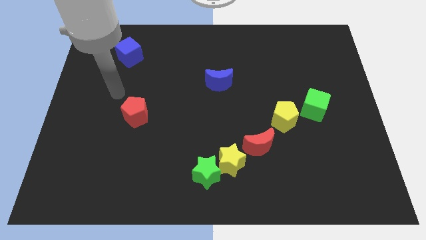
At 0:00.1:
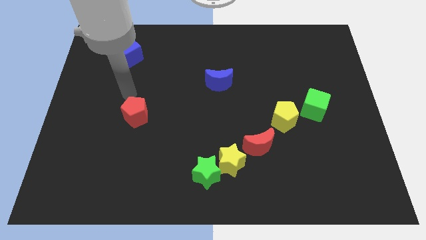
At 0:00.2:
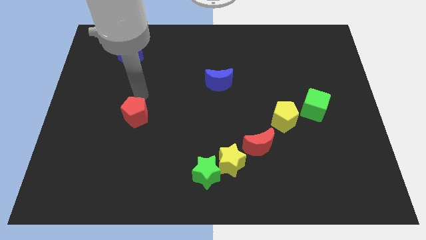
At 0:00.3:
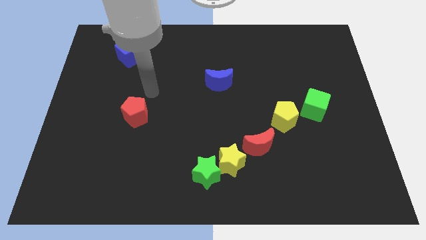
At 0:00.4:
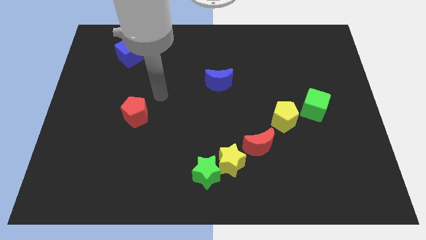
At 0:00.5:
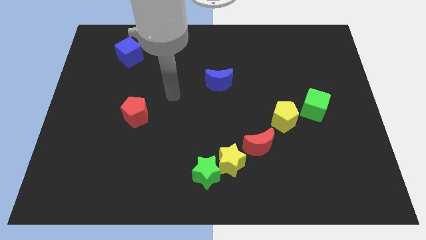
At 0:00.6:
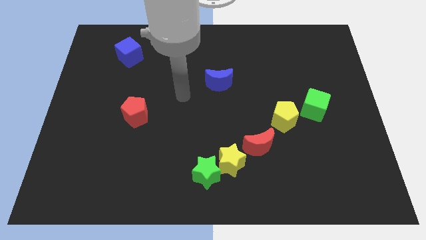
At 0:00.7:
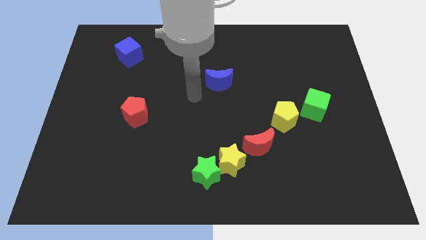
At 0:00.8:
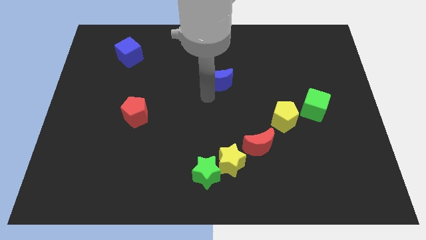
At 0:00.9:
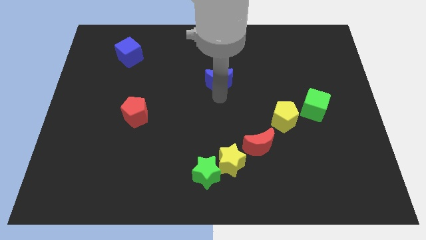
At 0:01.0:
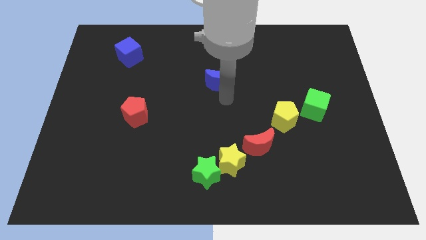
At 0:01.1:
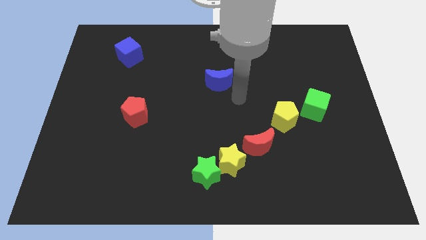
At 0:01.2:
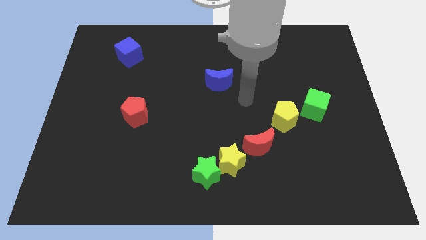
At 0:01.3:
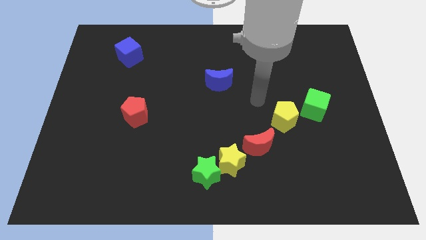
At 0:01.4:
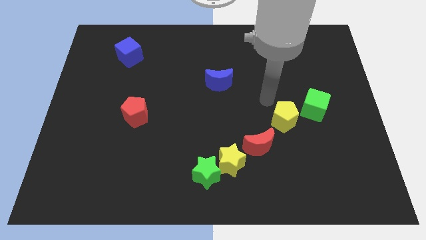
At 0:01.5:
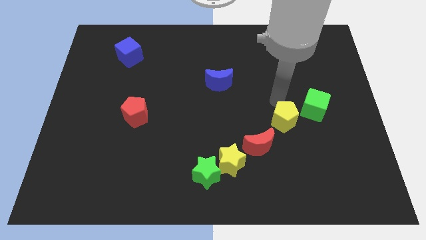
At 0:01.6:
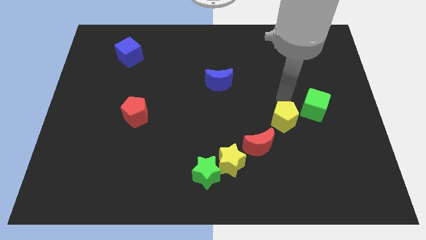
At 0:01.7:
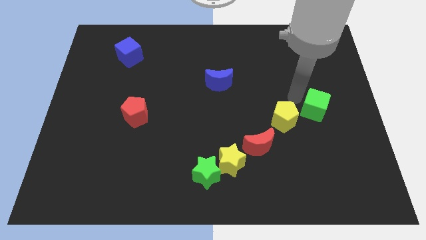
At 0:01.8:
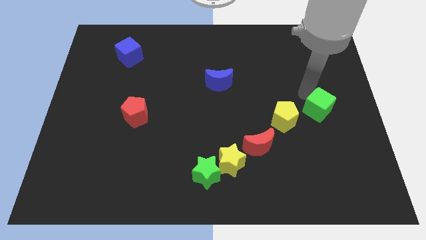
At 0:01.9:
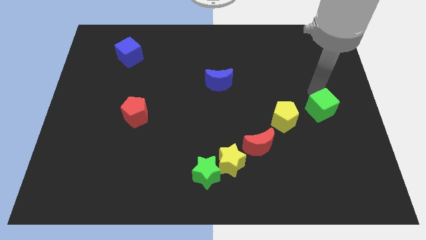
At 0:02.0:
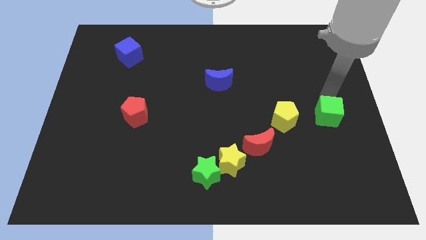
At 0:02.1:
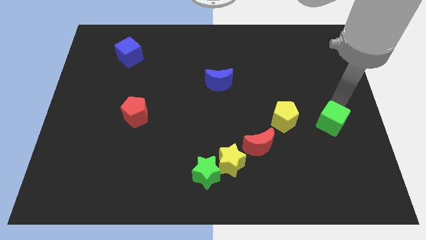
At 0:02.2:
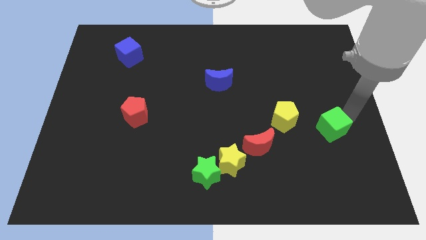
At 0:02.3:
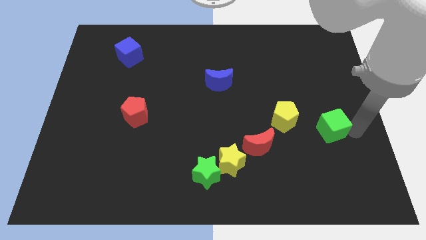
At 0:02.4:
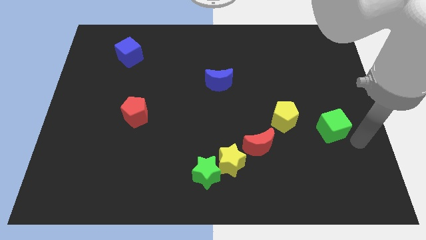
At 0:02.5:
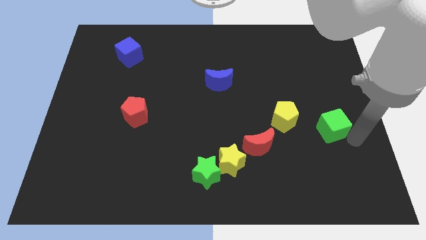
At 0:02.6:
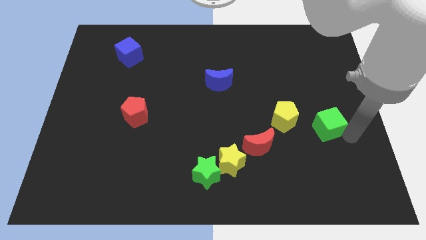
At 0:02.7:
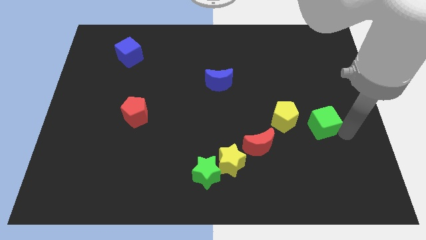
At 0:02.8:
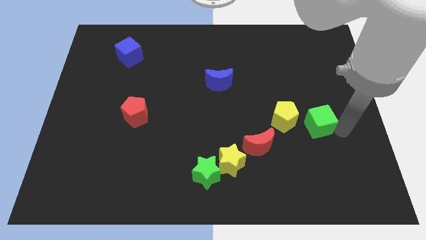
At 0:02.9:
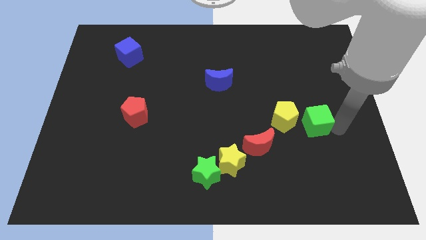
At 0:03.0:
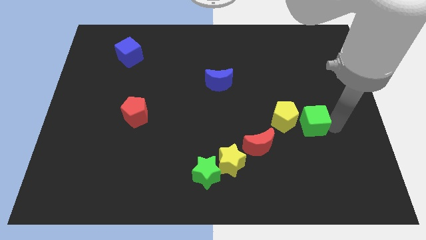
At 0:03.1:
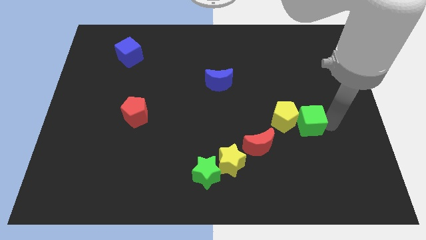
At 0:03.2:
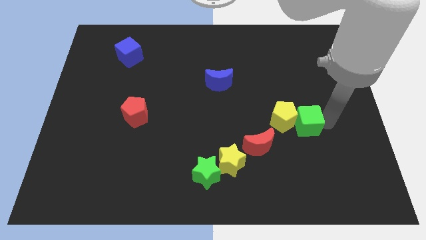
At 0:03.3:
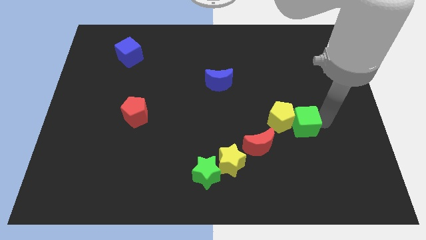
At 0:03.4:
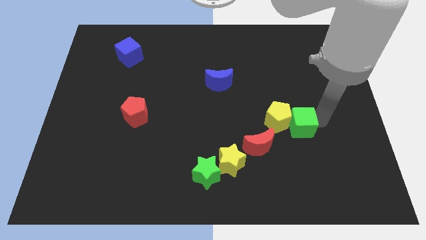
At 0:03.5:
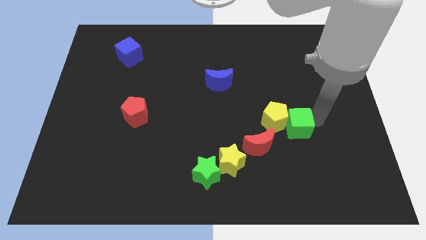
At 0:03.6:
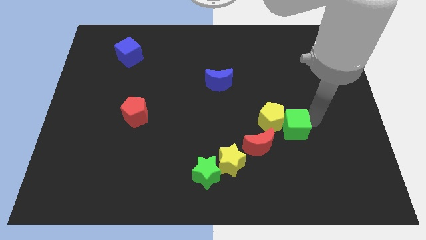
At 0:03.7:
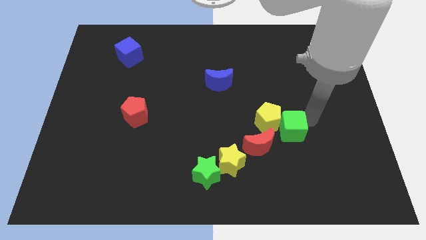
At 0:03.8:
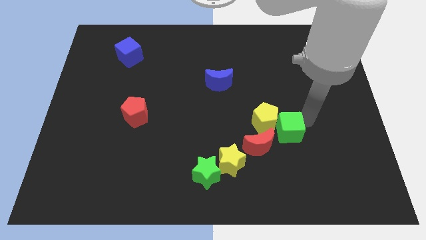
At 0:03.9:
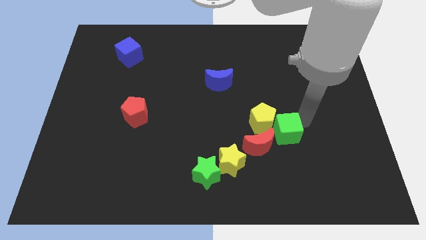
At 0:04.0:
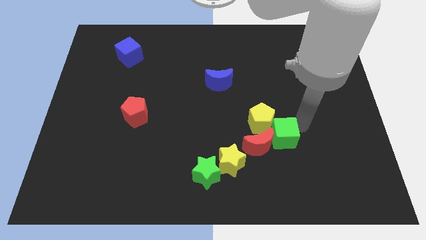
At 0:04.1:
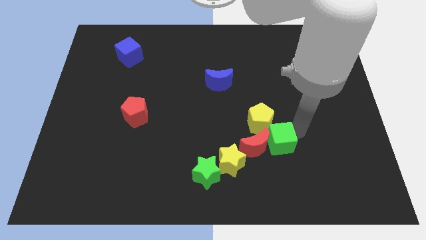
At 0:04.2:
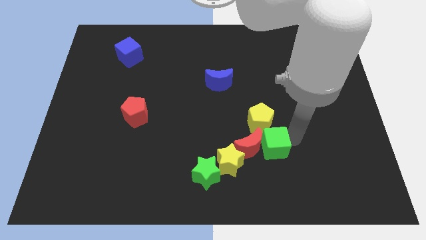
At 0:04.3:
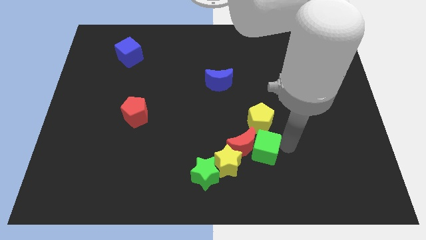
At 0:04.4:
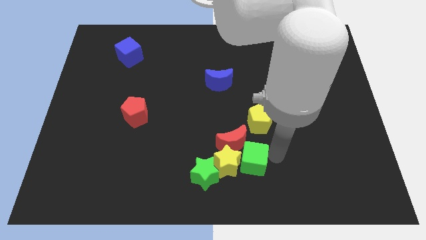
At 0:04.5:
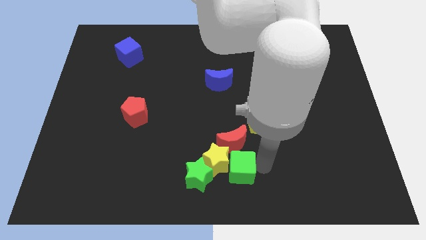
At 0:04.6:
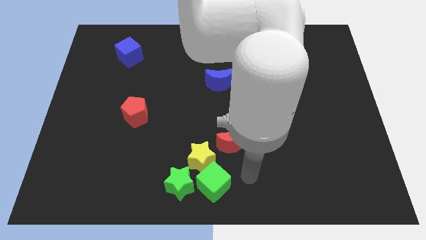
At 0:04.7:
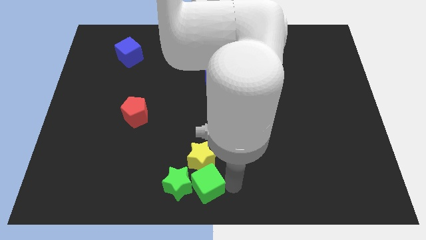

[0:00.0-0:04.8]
push the green cube next to the green star

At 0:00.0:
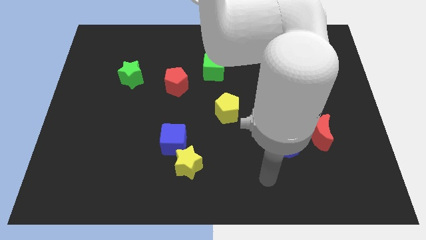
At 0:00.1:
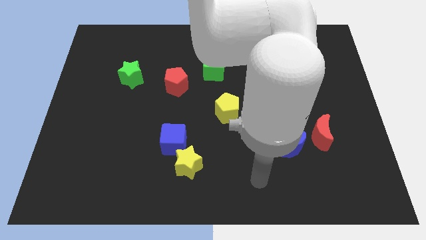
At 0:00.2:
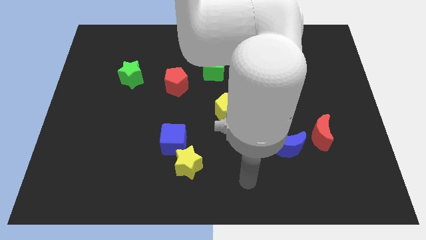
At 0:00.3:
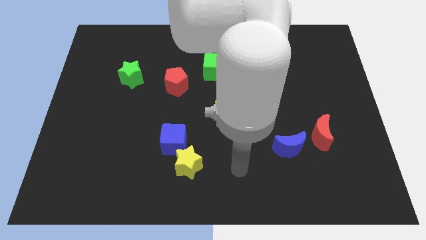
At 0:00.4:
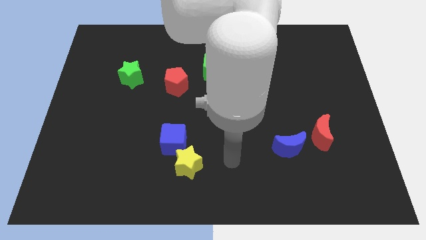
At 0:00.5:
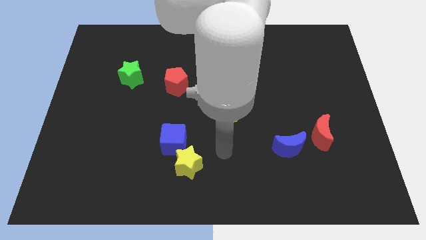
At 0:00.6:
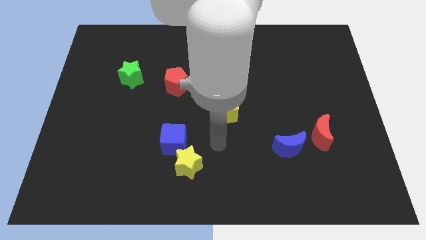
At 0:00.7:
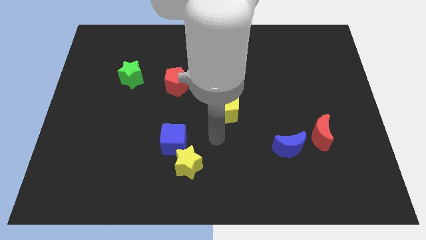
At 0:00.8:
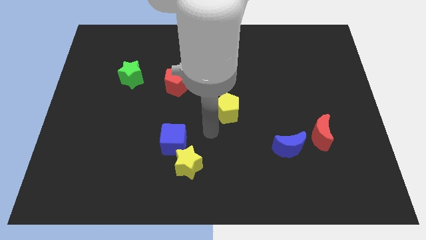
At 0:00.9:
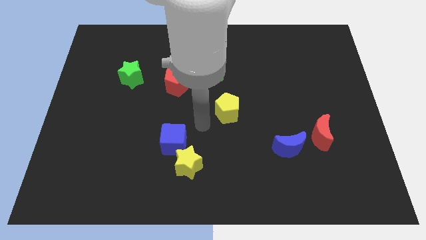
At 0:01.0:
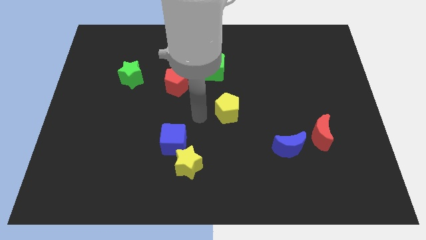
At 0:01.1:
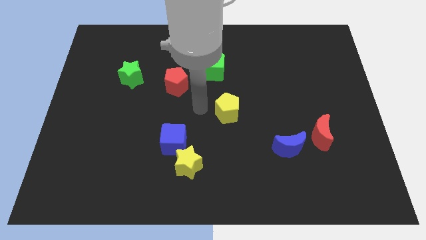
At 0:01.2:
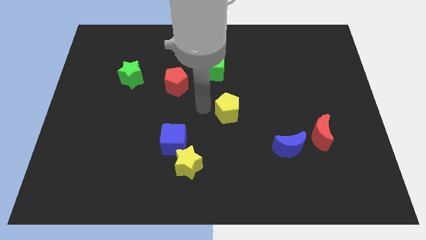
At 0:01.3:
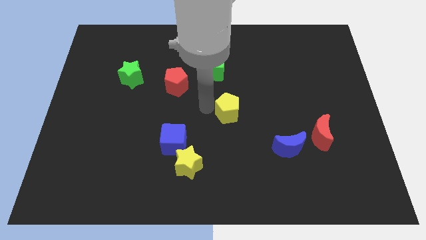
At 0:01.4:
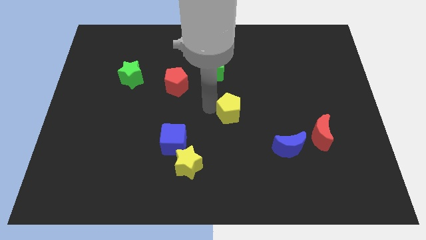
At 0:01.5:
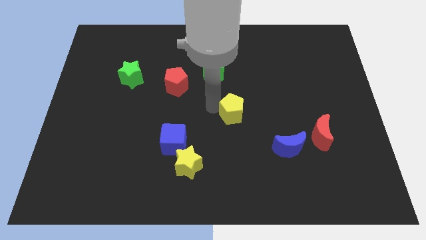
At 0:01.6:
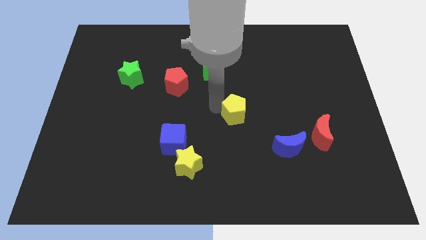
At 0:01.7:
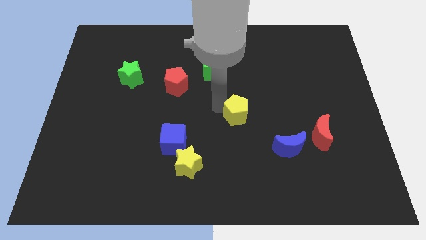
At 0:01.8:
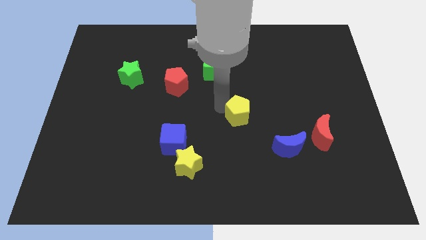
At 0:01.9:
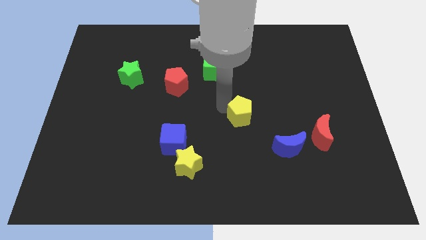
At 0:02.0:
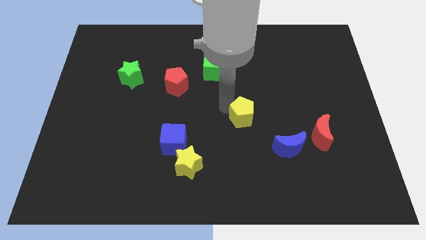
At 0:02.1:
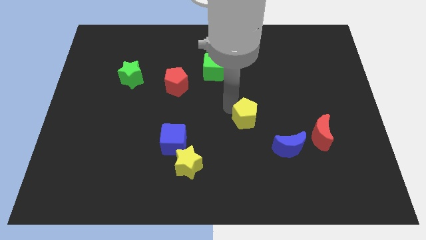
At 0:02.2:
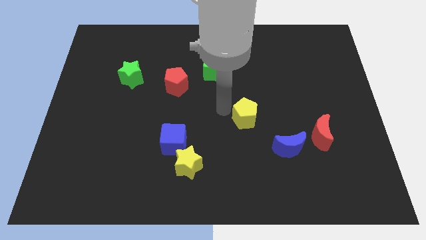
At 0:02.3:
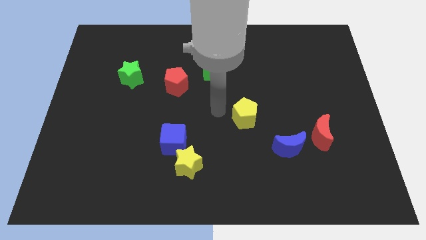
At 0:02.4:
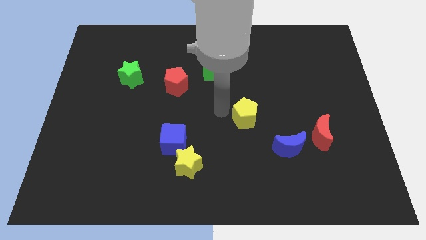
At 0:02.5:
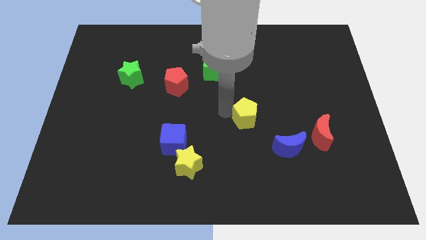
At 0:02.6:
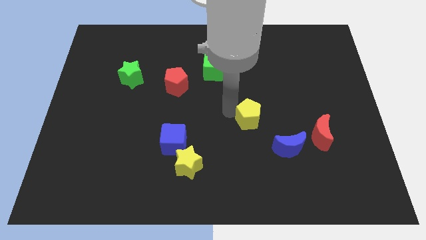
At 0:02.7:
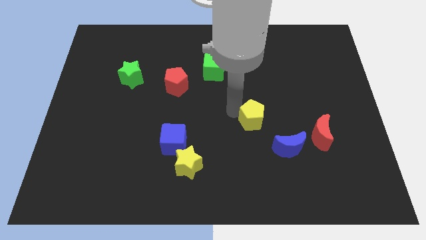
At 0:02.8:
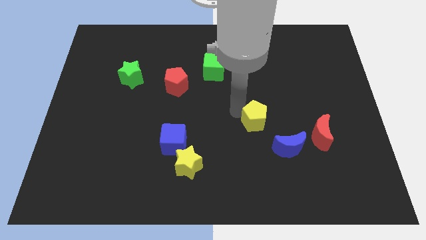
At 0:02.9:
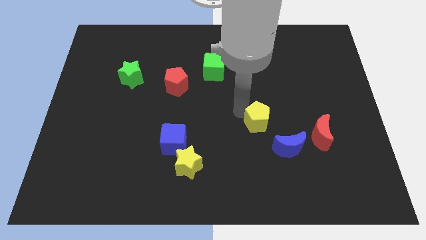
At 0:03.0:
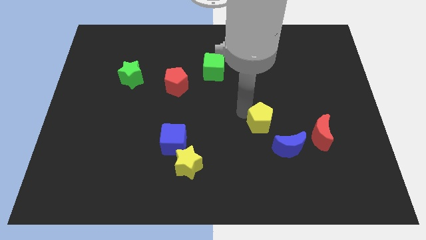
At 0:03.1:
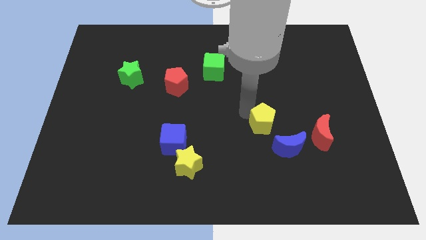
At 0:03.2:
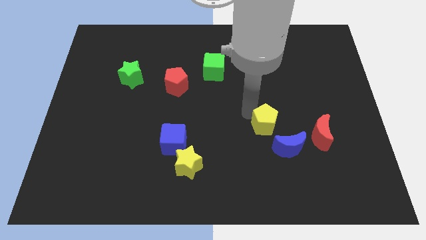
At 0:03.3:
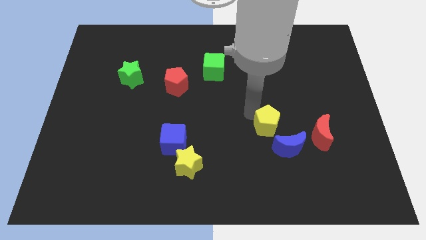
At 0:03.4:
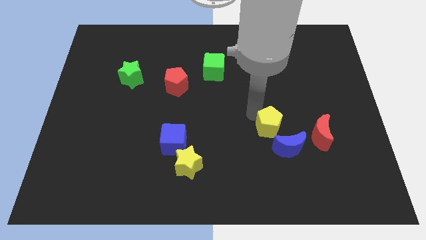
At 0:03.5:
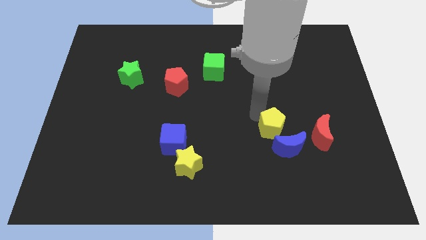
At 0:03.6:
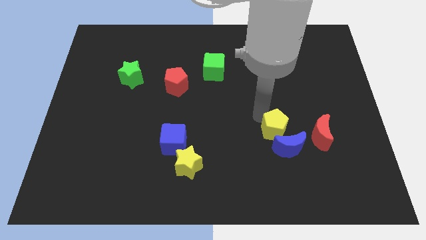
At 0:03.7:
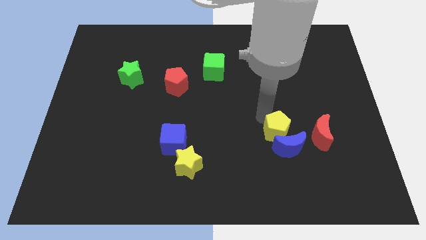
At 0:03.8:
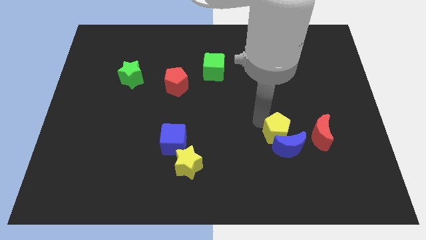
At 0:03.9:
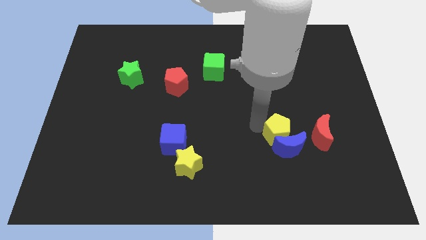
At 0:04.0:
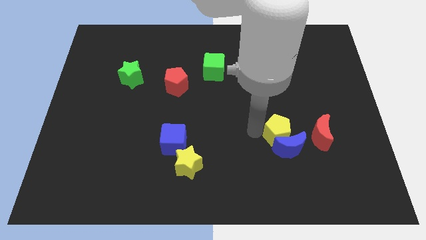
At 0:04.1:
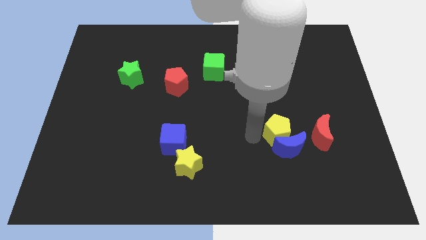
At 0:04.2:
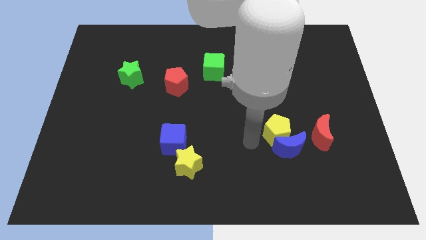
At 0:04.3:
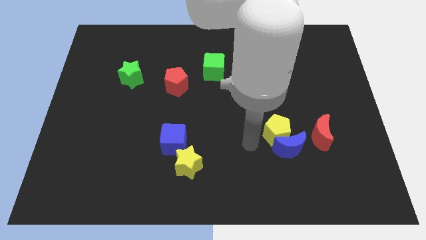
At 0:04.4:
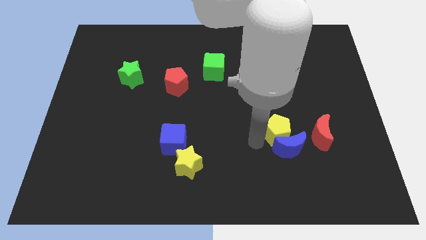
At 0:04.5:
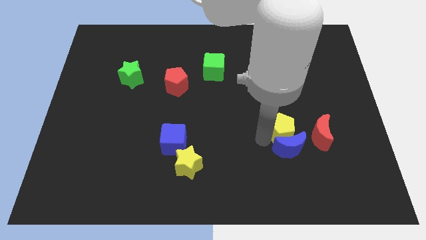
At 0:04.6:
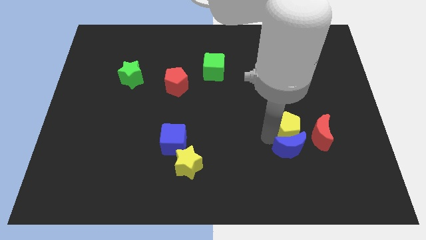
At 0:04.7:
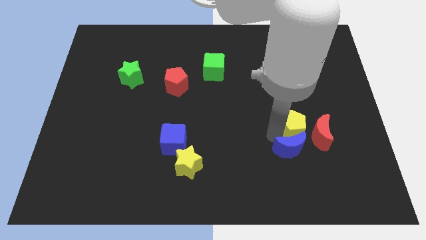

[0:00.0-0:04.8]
move the yellow pentagon next to the red moon
